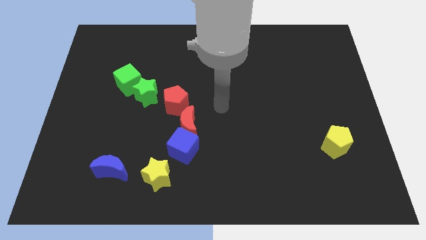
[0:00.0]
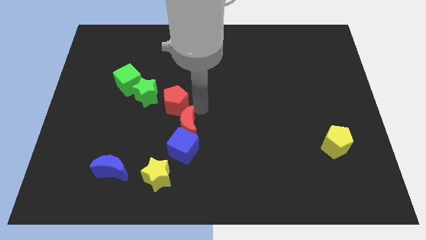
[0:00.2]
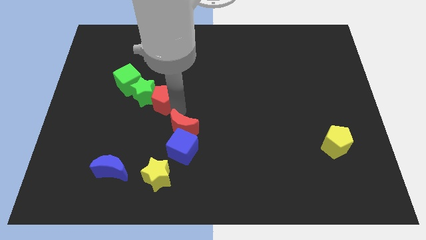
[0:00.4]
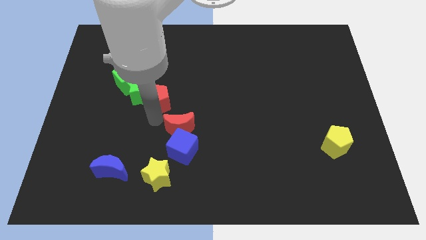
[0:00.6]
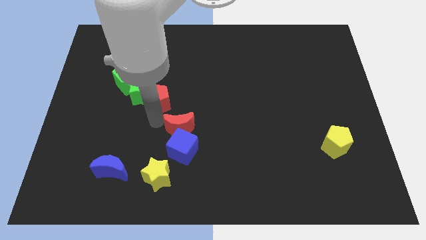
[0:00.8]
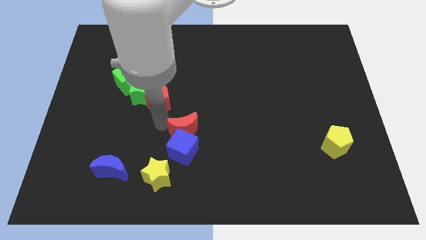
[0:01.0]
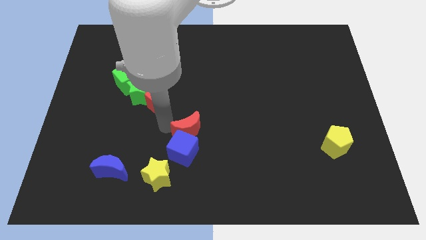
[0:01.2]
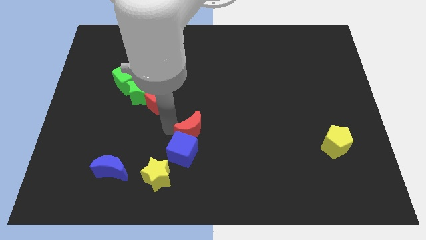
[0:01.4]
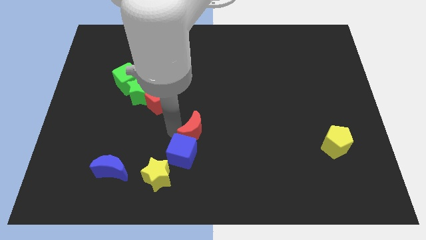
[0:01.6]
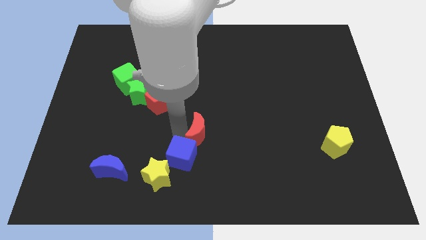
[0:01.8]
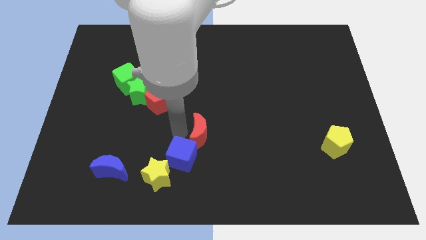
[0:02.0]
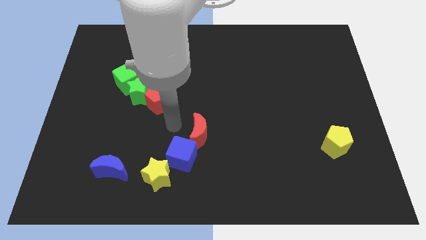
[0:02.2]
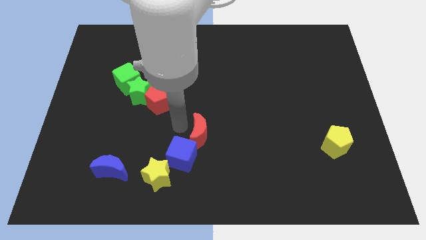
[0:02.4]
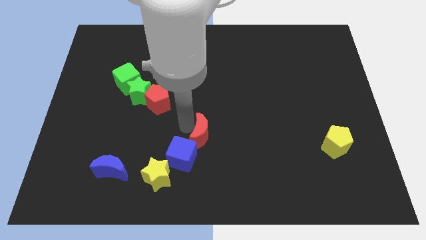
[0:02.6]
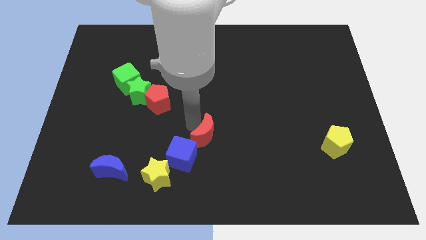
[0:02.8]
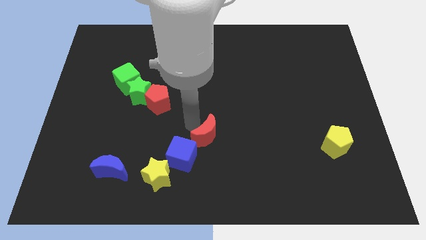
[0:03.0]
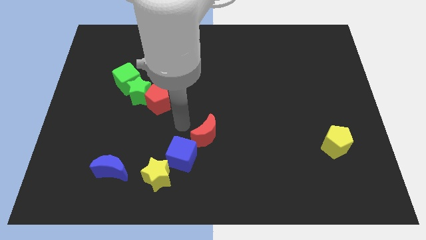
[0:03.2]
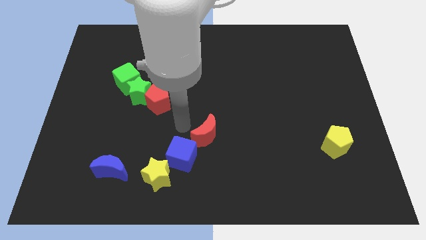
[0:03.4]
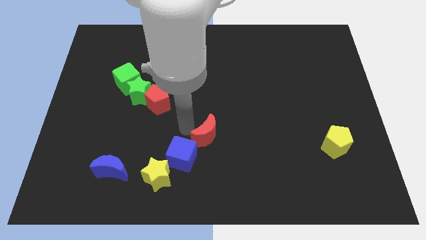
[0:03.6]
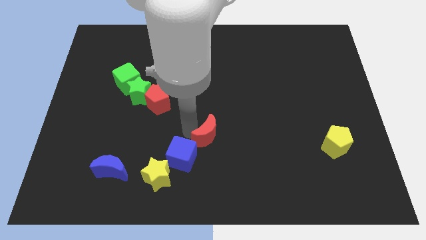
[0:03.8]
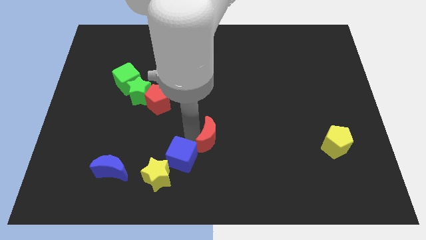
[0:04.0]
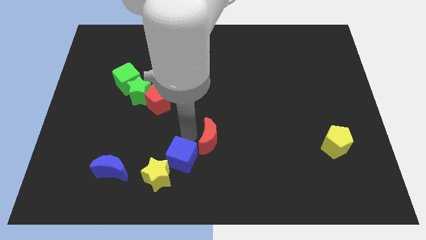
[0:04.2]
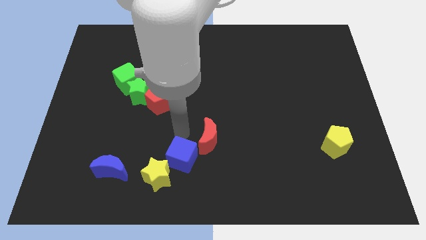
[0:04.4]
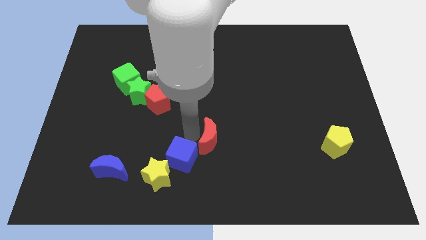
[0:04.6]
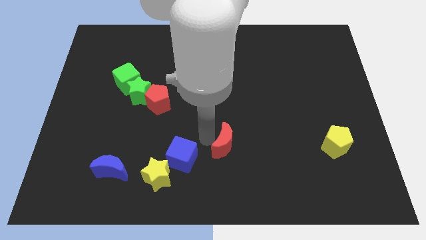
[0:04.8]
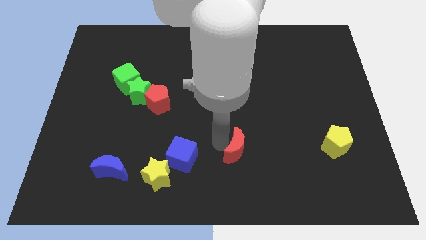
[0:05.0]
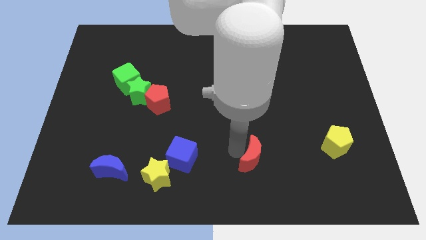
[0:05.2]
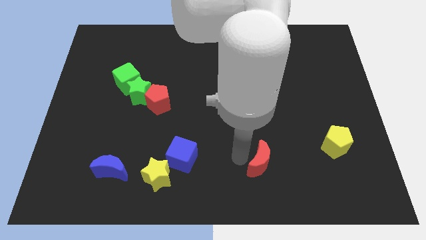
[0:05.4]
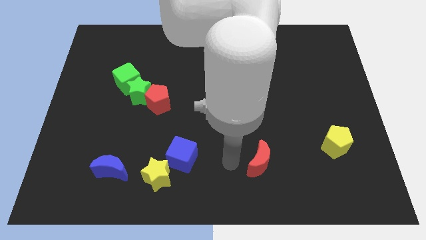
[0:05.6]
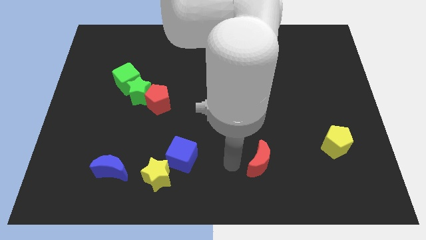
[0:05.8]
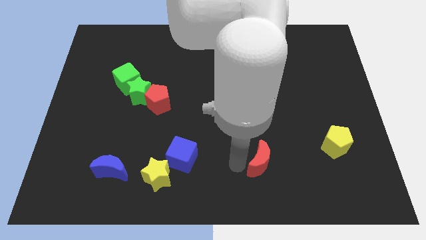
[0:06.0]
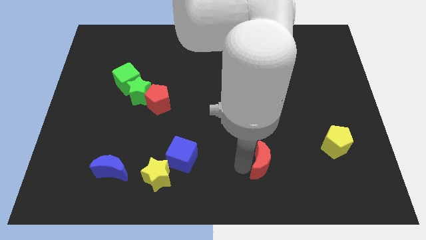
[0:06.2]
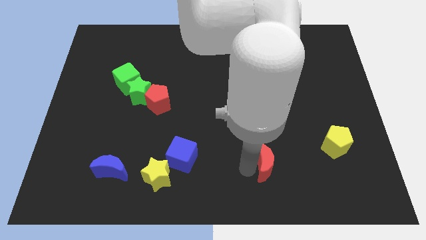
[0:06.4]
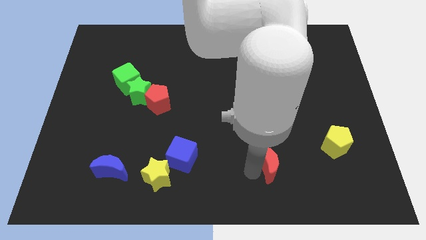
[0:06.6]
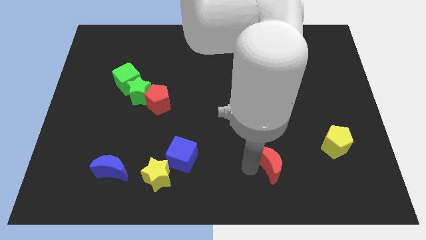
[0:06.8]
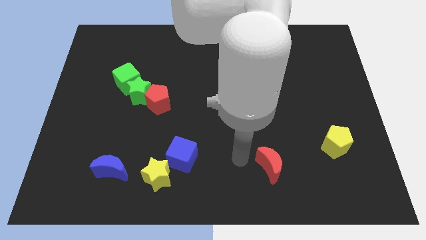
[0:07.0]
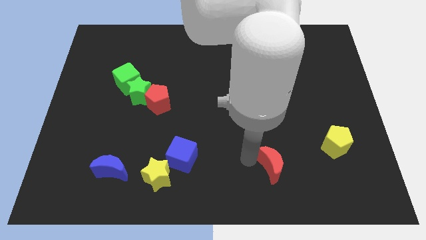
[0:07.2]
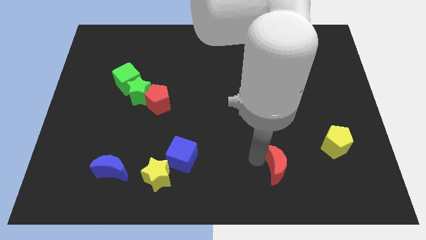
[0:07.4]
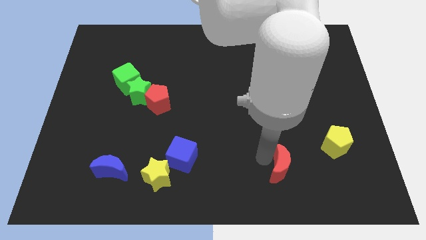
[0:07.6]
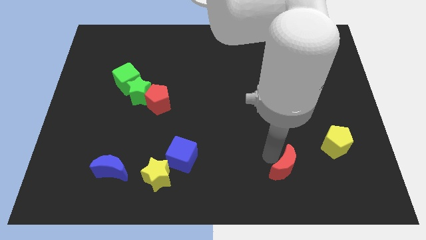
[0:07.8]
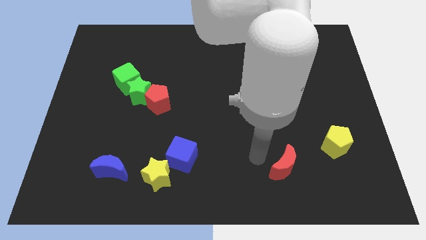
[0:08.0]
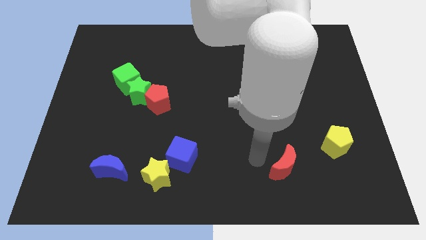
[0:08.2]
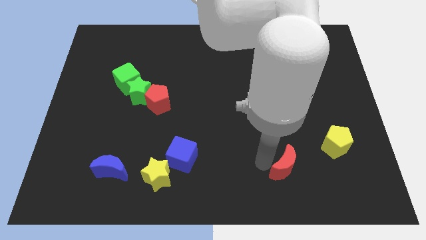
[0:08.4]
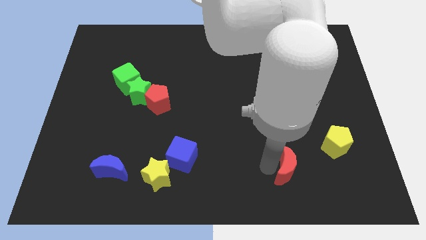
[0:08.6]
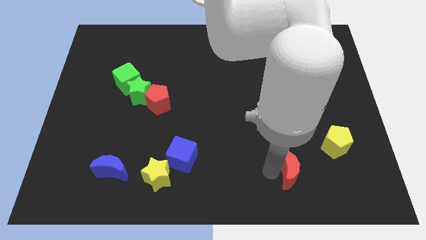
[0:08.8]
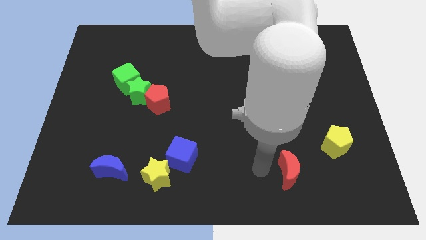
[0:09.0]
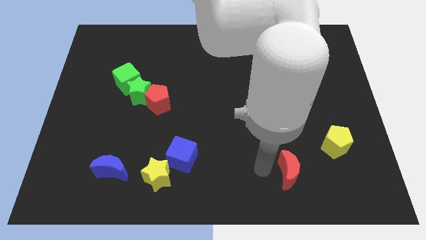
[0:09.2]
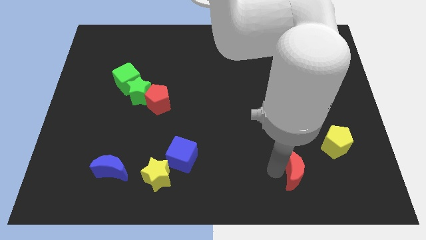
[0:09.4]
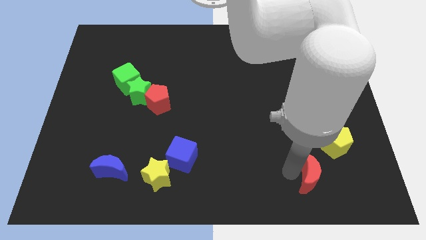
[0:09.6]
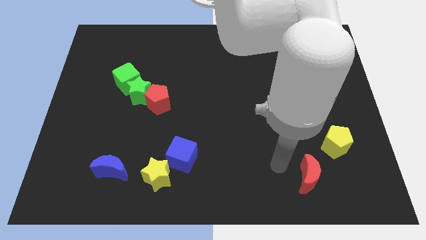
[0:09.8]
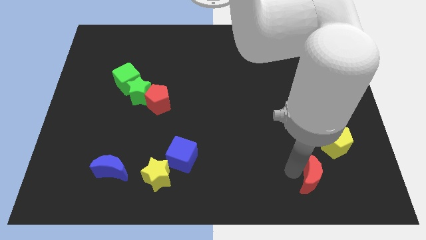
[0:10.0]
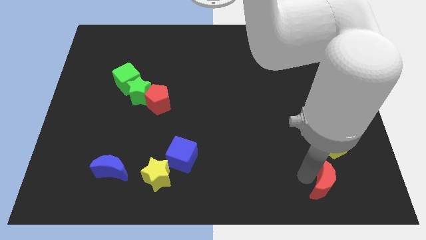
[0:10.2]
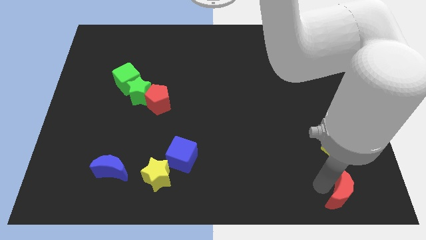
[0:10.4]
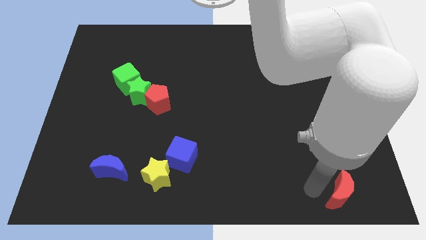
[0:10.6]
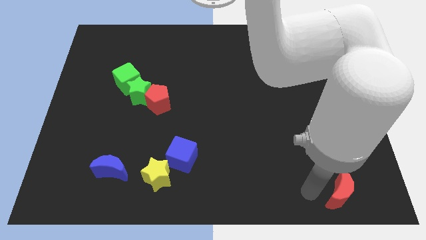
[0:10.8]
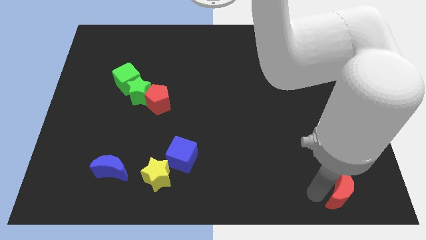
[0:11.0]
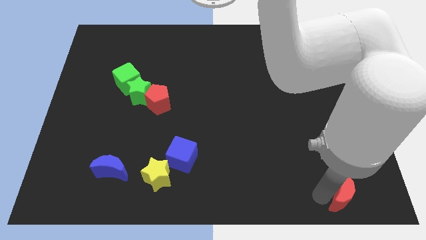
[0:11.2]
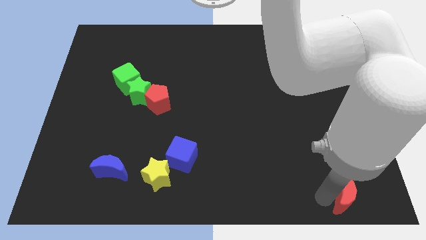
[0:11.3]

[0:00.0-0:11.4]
slide the red moon to the lower right corner
